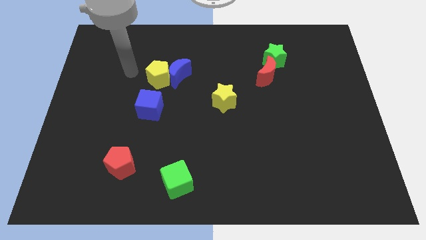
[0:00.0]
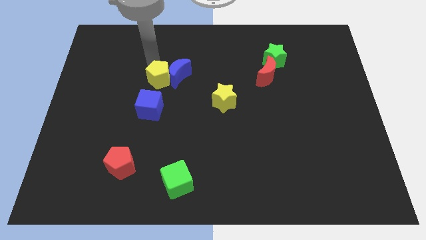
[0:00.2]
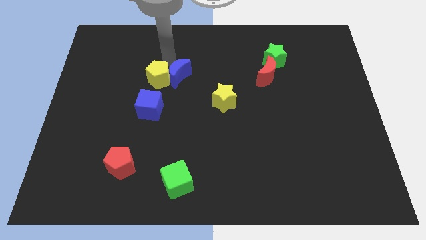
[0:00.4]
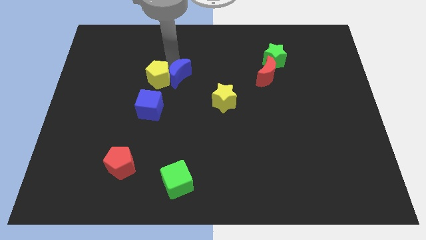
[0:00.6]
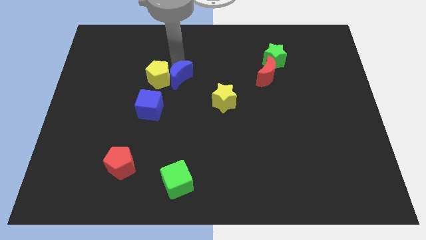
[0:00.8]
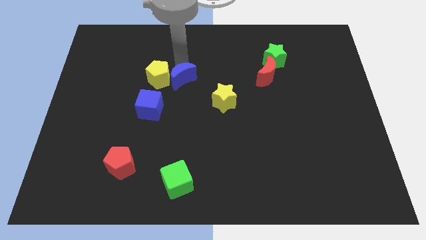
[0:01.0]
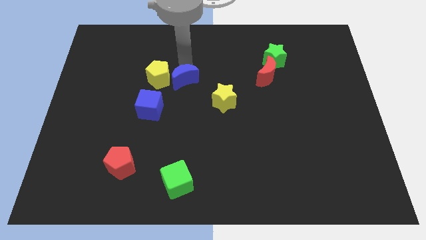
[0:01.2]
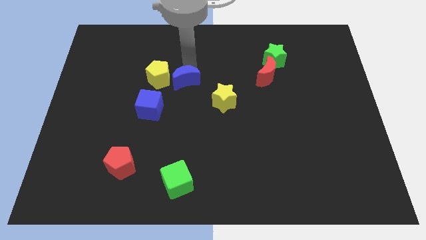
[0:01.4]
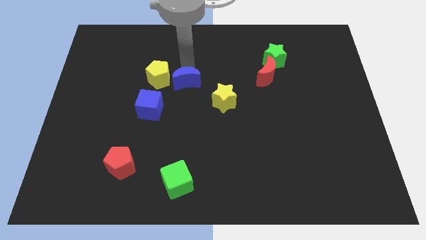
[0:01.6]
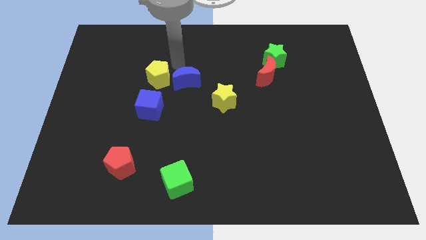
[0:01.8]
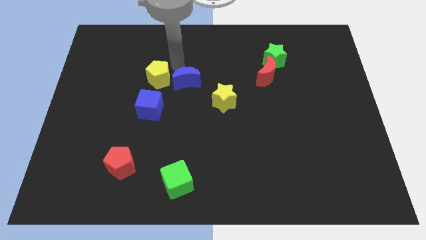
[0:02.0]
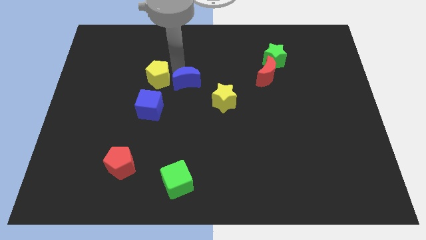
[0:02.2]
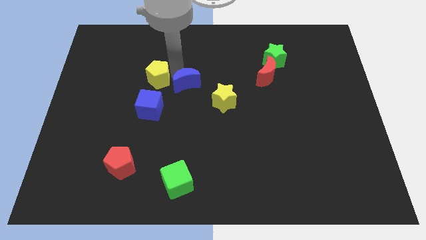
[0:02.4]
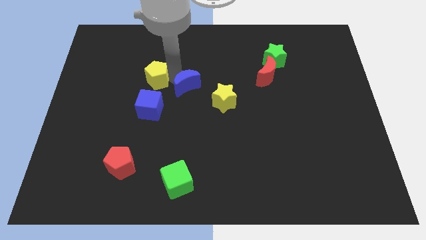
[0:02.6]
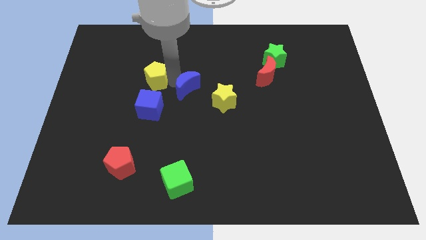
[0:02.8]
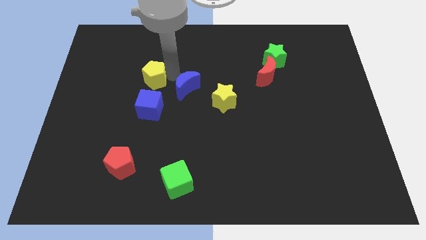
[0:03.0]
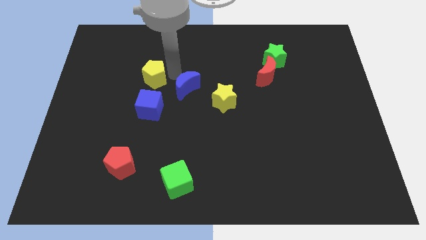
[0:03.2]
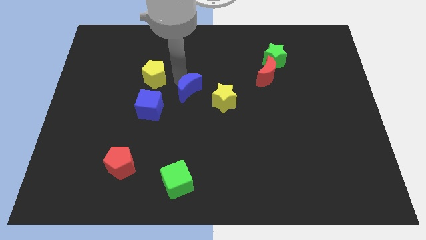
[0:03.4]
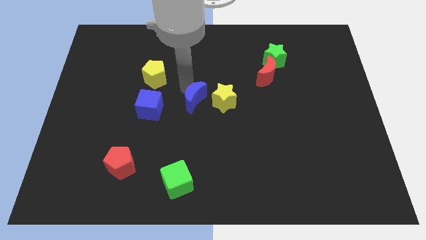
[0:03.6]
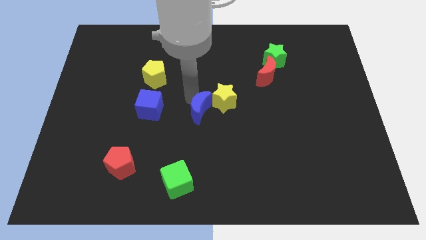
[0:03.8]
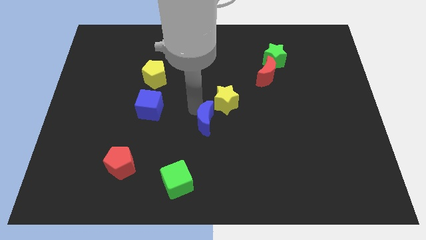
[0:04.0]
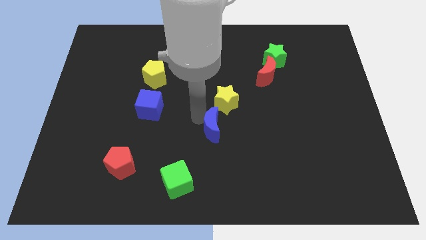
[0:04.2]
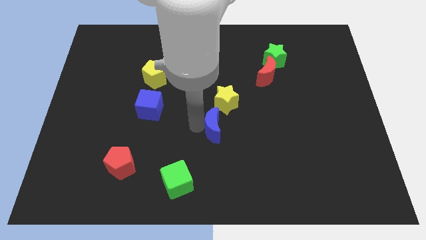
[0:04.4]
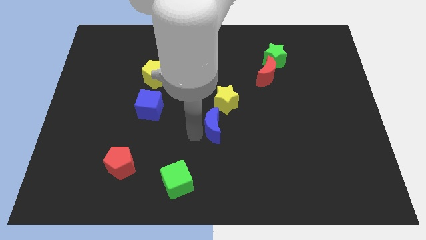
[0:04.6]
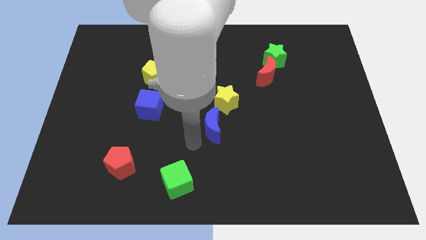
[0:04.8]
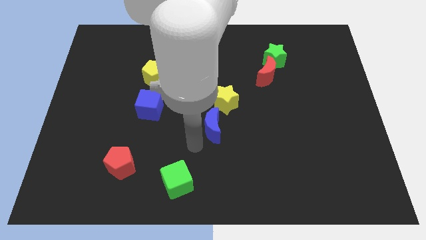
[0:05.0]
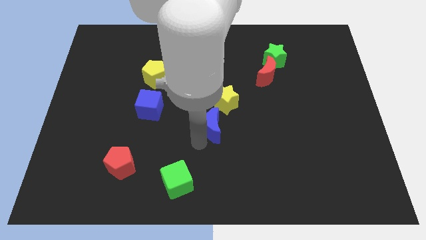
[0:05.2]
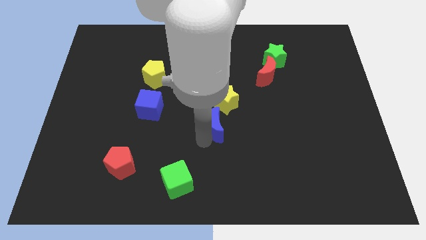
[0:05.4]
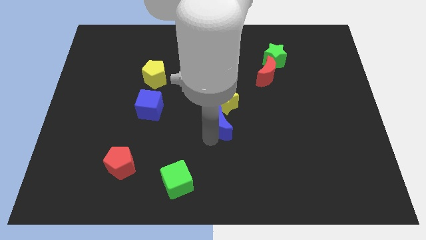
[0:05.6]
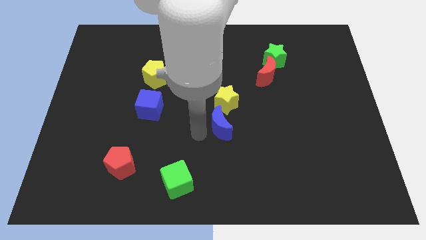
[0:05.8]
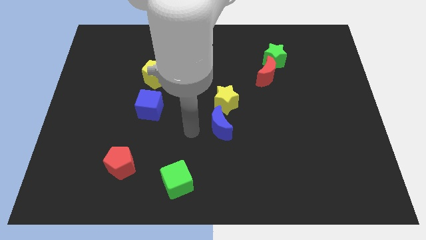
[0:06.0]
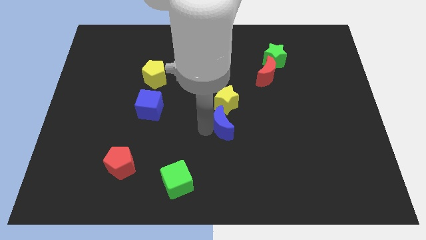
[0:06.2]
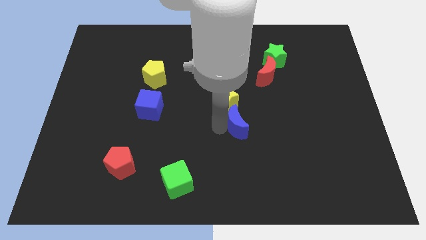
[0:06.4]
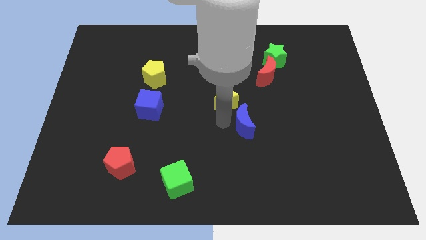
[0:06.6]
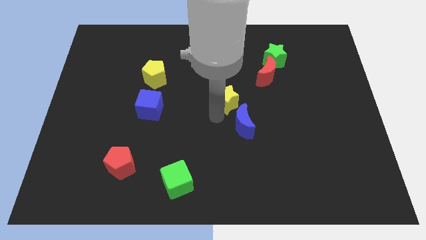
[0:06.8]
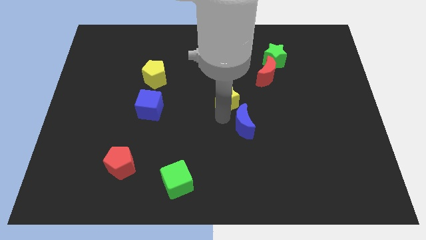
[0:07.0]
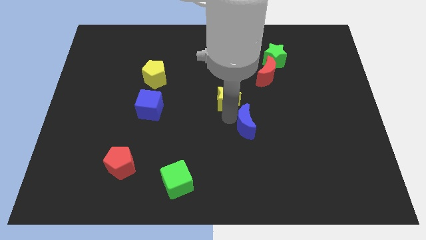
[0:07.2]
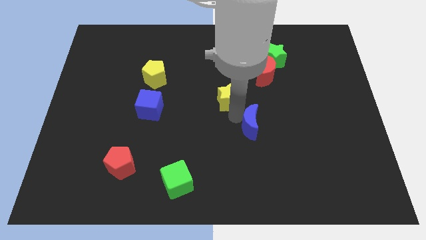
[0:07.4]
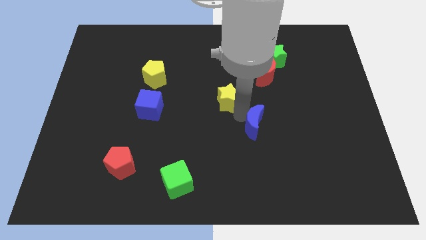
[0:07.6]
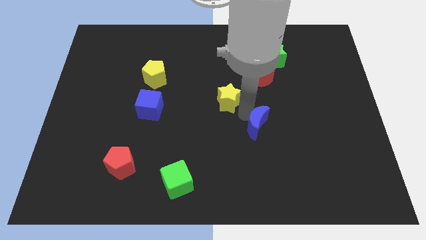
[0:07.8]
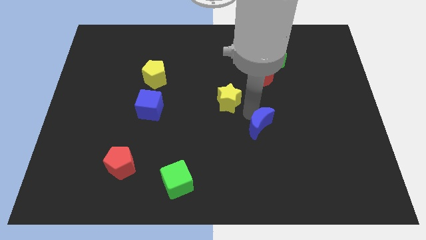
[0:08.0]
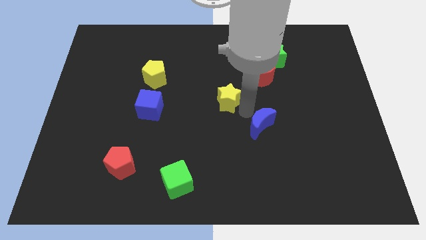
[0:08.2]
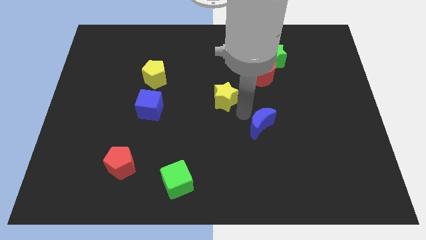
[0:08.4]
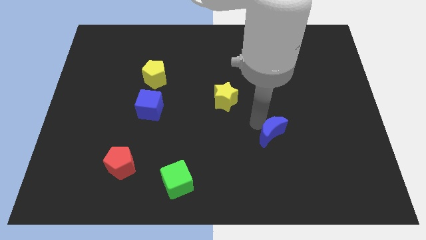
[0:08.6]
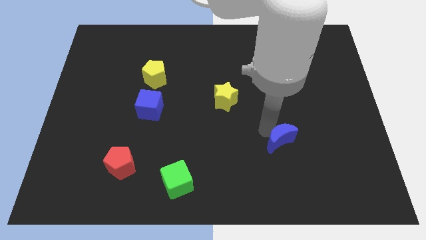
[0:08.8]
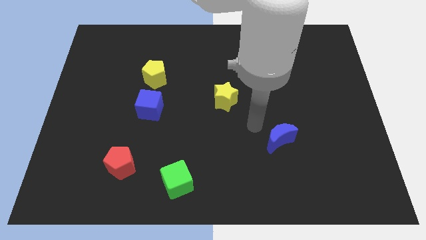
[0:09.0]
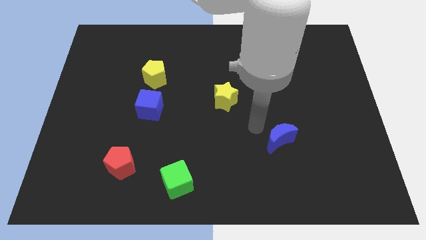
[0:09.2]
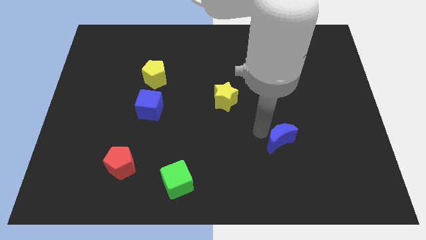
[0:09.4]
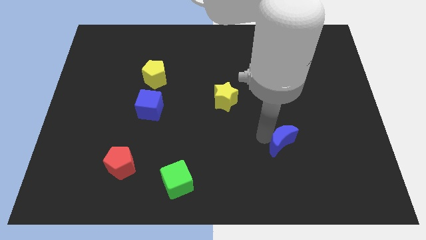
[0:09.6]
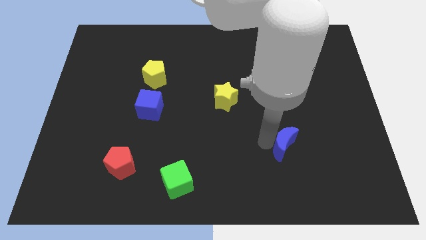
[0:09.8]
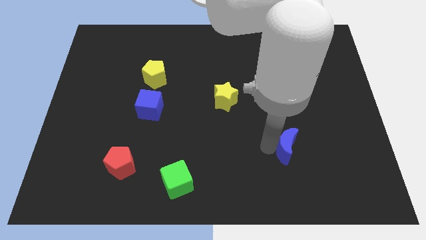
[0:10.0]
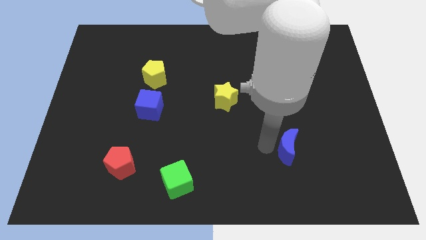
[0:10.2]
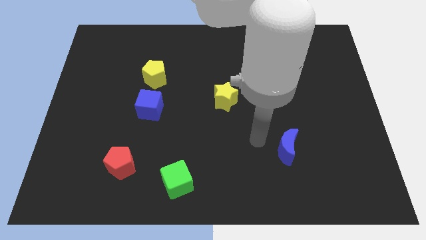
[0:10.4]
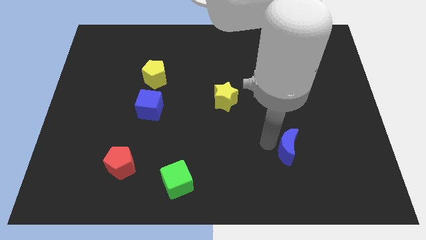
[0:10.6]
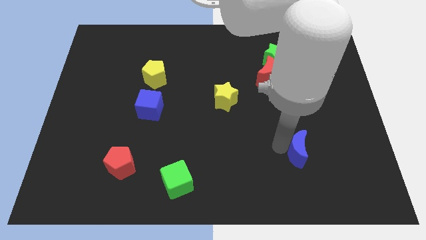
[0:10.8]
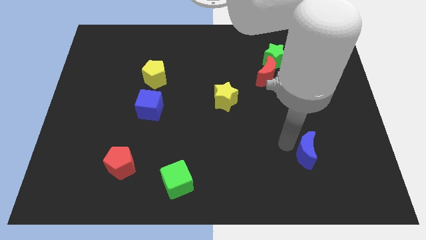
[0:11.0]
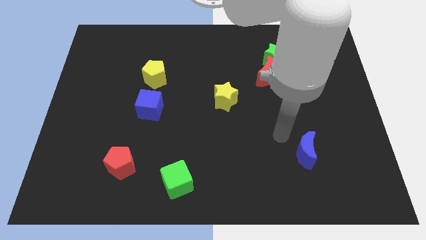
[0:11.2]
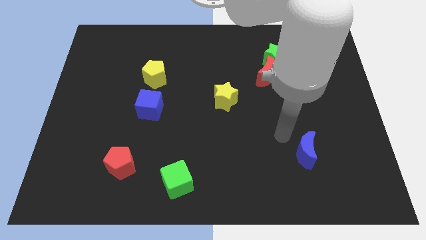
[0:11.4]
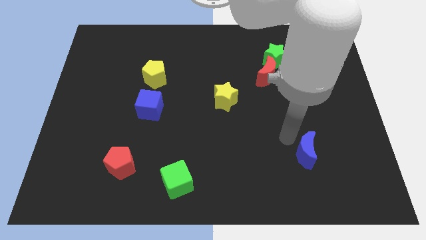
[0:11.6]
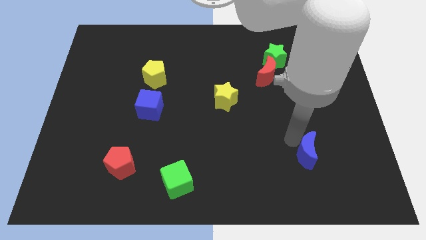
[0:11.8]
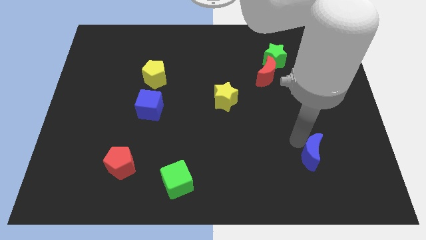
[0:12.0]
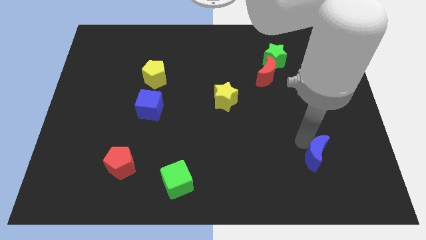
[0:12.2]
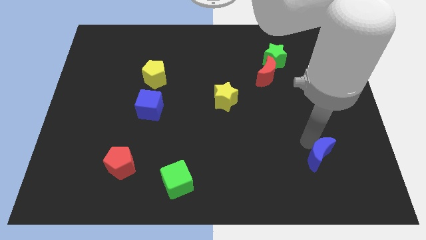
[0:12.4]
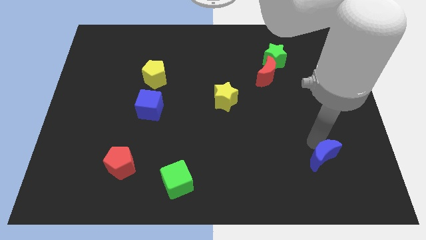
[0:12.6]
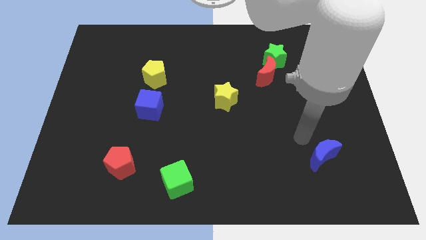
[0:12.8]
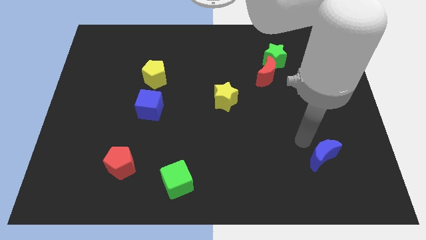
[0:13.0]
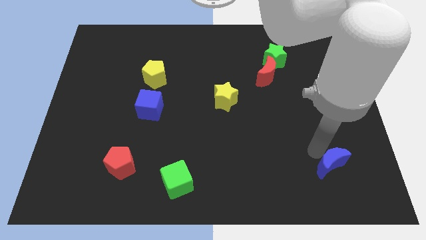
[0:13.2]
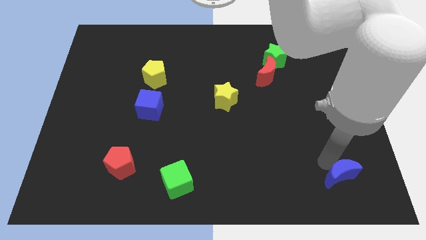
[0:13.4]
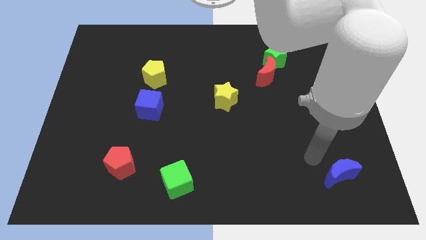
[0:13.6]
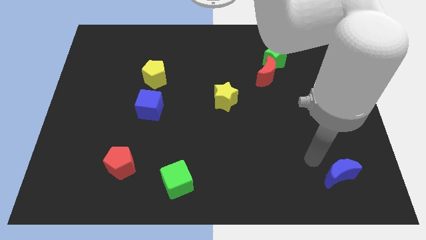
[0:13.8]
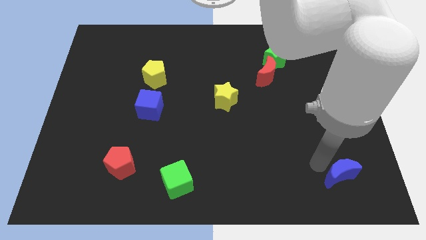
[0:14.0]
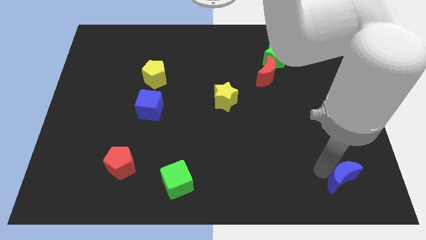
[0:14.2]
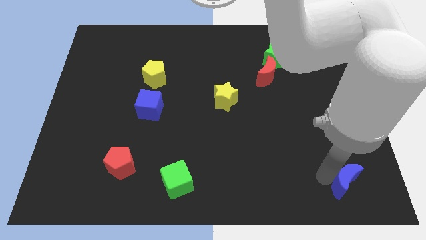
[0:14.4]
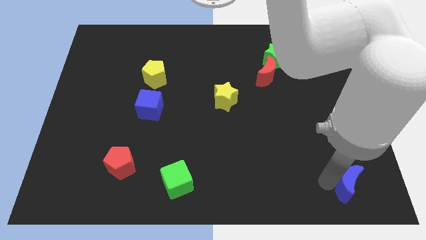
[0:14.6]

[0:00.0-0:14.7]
put the blue moon to the bottom right corner
